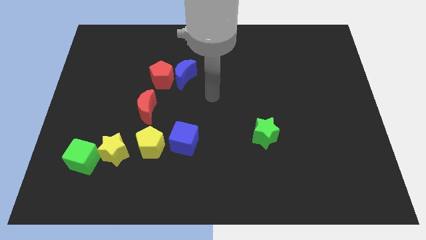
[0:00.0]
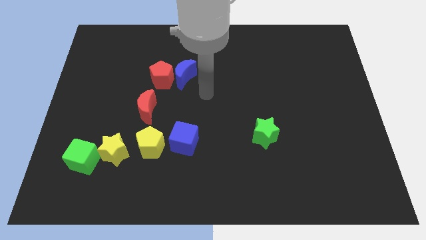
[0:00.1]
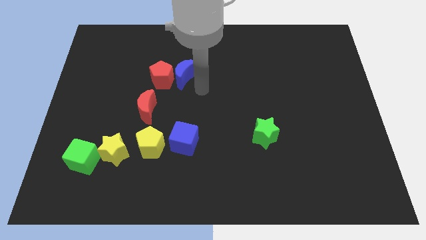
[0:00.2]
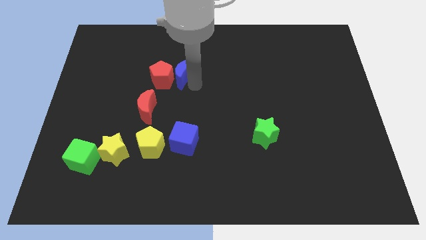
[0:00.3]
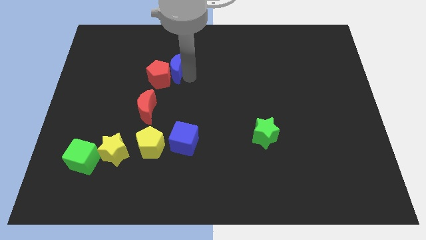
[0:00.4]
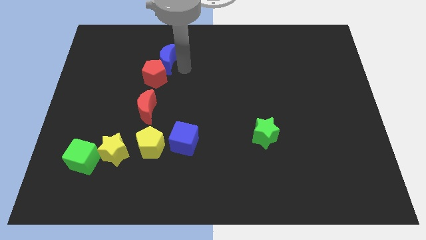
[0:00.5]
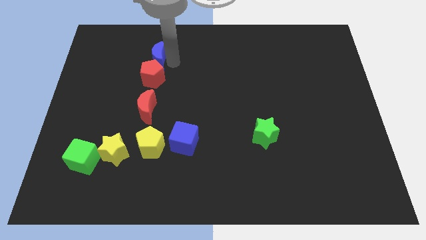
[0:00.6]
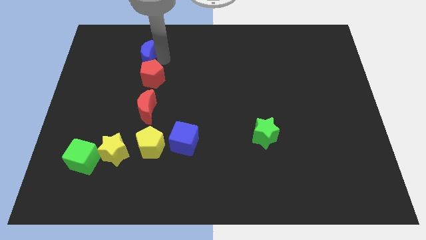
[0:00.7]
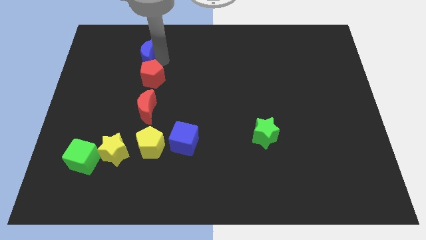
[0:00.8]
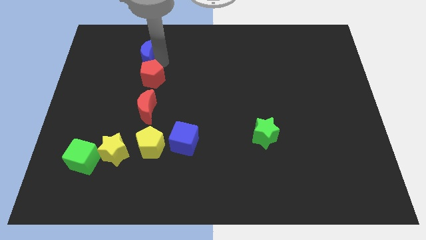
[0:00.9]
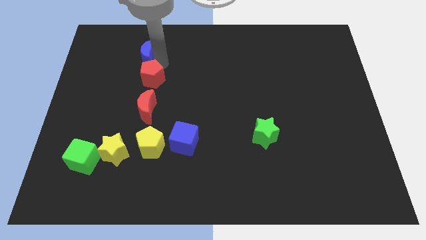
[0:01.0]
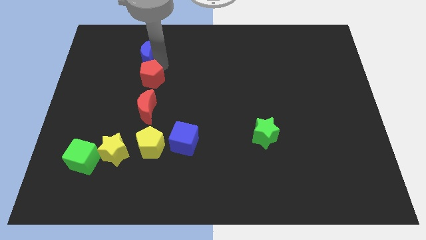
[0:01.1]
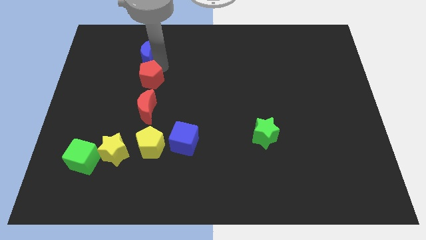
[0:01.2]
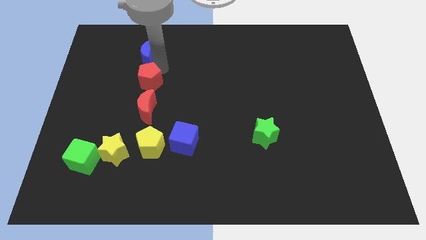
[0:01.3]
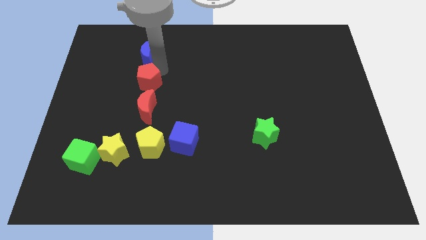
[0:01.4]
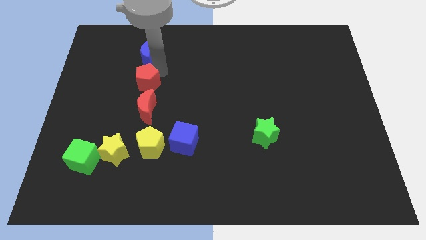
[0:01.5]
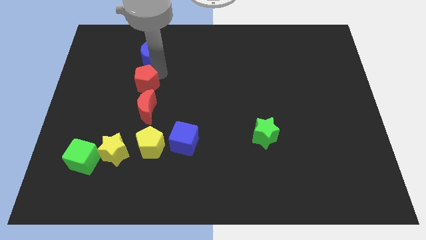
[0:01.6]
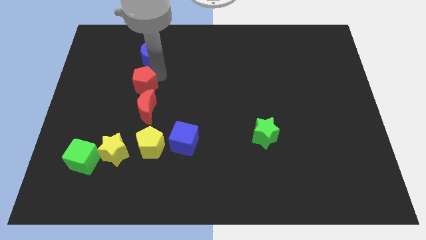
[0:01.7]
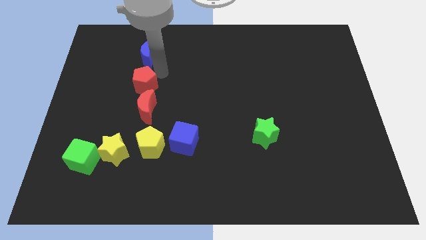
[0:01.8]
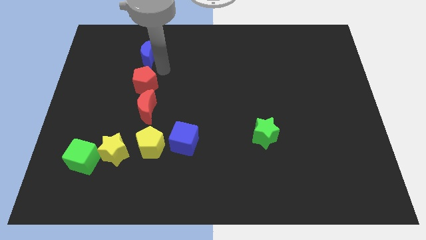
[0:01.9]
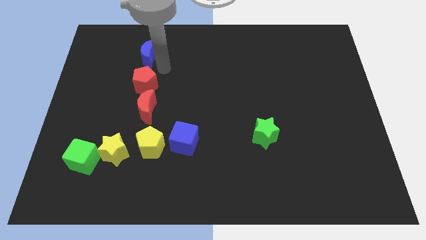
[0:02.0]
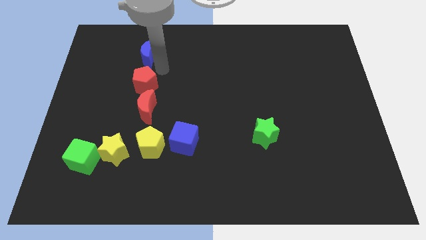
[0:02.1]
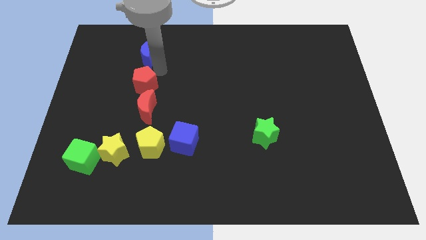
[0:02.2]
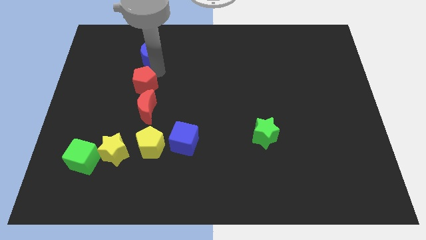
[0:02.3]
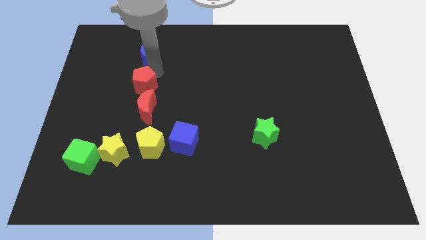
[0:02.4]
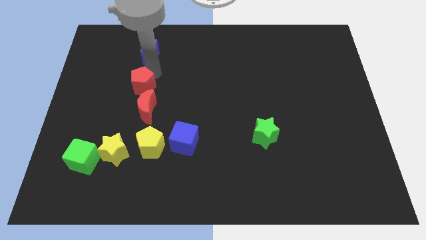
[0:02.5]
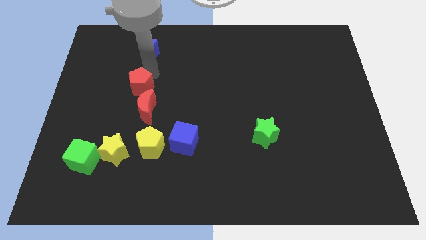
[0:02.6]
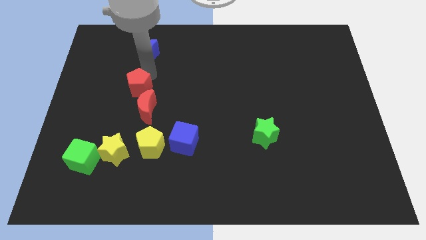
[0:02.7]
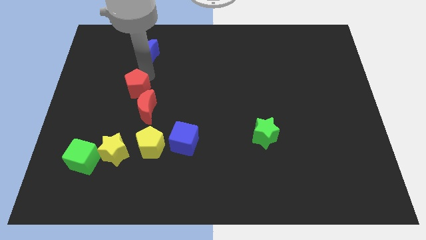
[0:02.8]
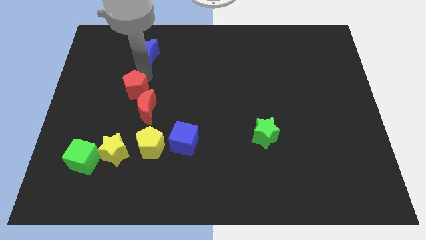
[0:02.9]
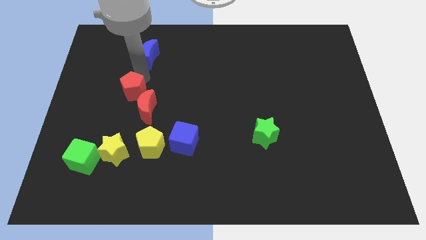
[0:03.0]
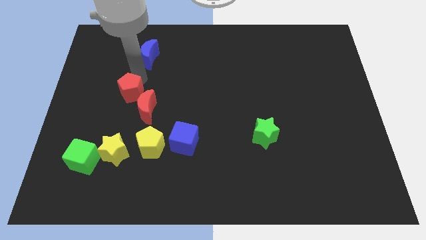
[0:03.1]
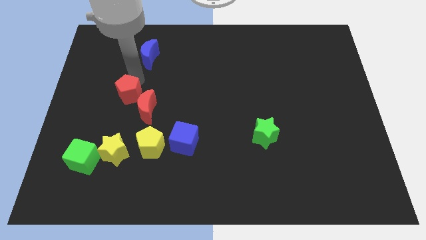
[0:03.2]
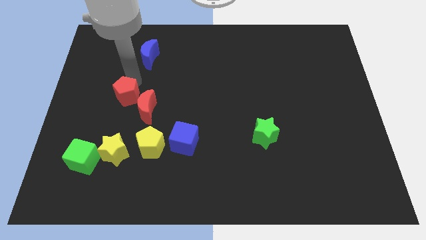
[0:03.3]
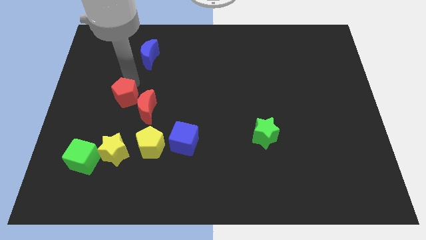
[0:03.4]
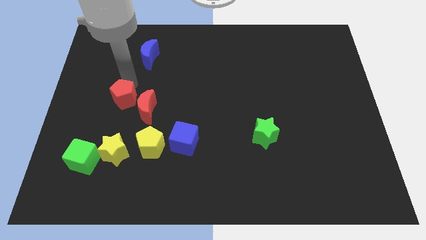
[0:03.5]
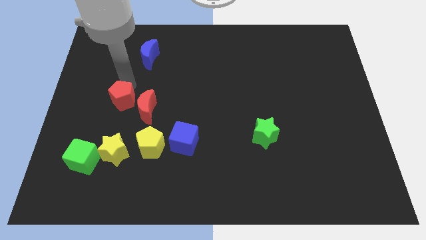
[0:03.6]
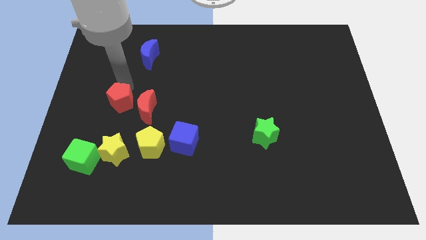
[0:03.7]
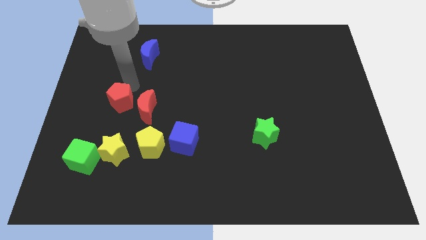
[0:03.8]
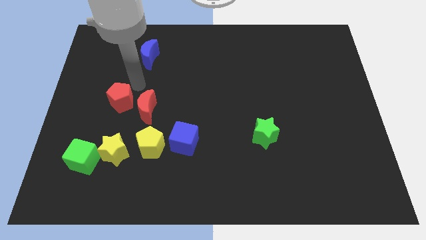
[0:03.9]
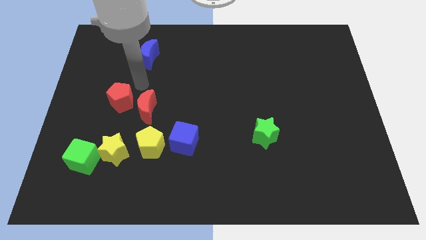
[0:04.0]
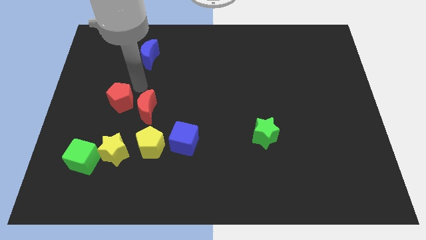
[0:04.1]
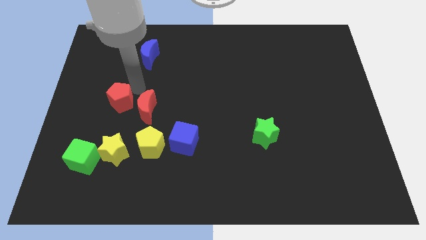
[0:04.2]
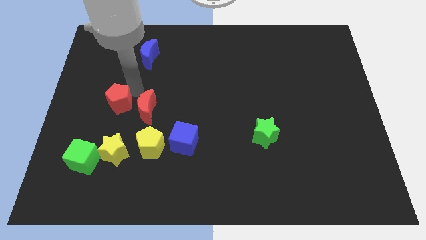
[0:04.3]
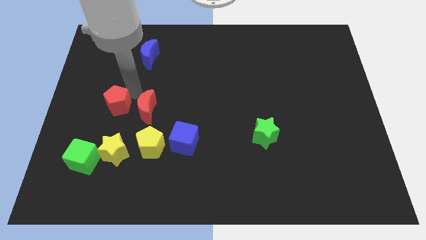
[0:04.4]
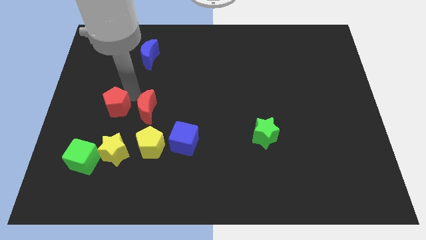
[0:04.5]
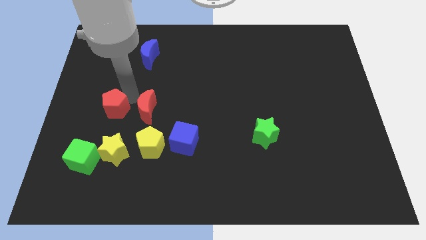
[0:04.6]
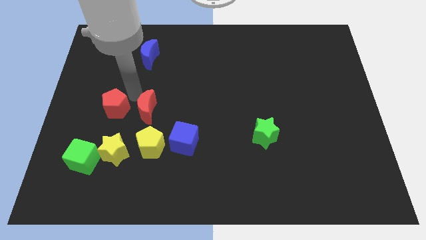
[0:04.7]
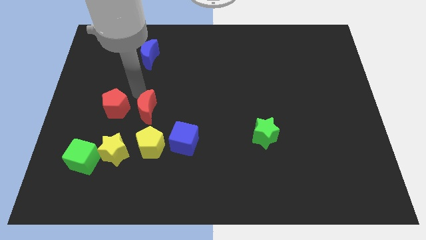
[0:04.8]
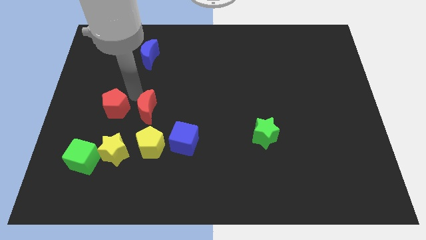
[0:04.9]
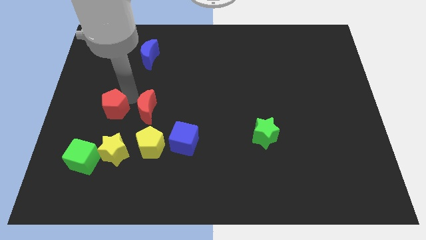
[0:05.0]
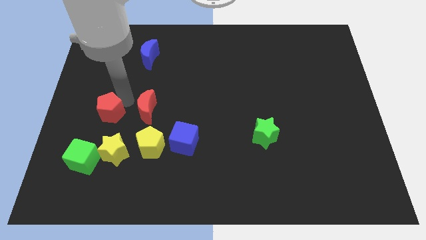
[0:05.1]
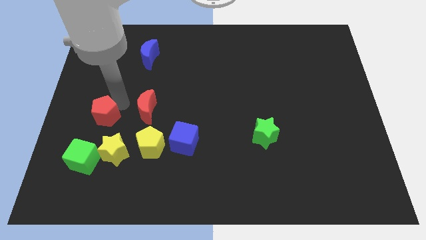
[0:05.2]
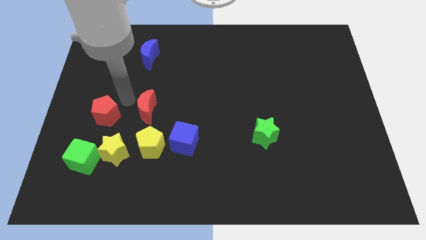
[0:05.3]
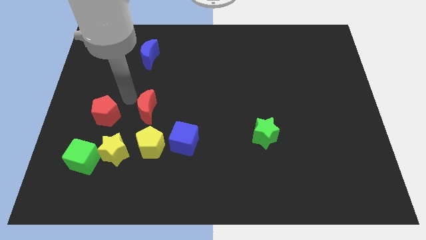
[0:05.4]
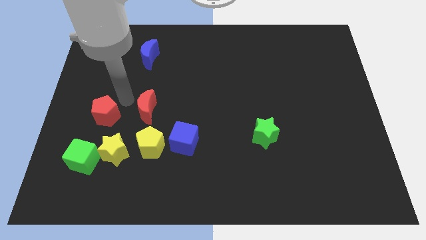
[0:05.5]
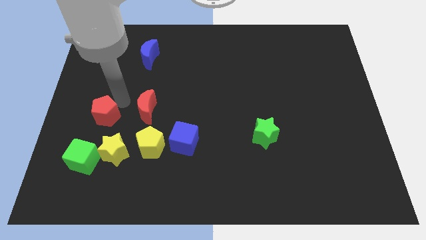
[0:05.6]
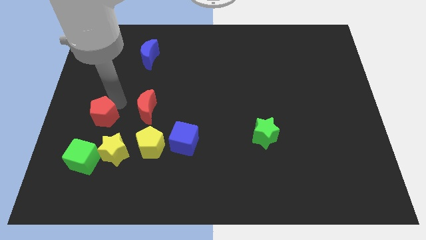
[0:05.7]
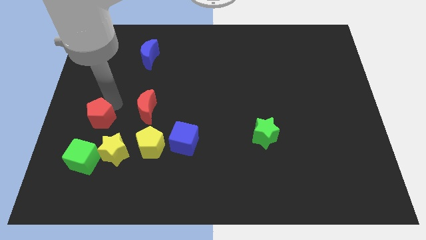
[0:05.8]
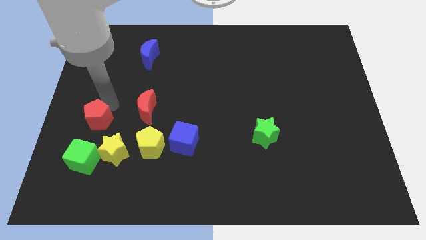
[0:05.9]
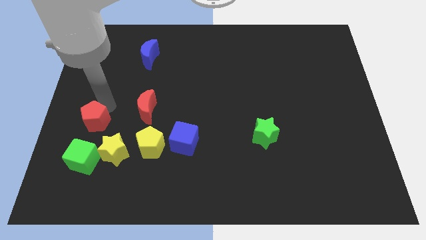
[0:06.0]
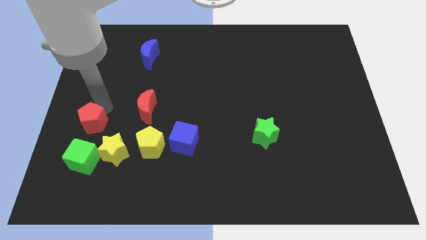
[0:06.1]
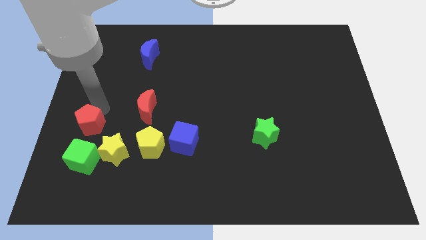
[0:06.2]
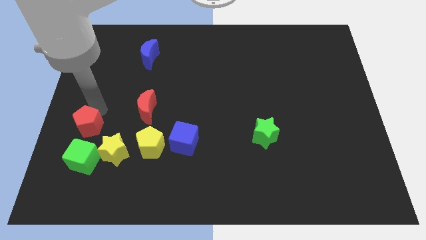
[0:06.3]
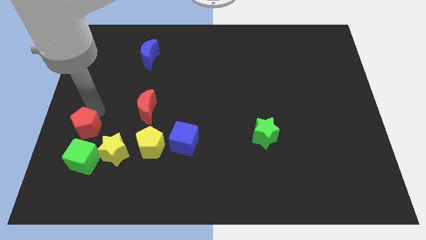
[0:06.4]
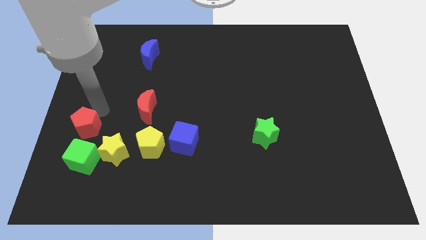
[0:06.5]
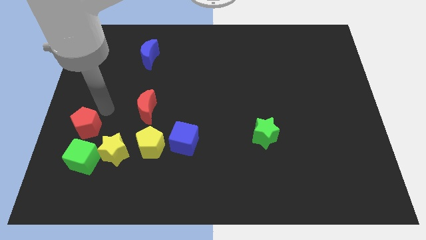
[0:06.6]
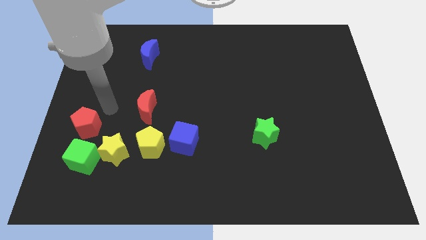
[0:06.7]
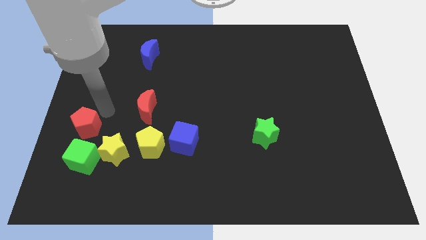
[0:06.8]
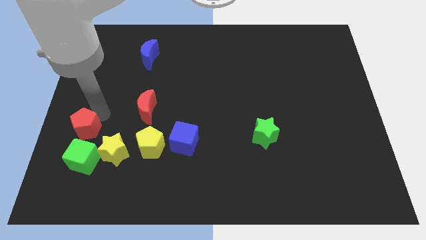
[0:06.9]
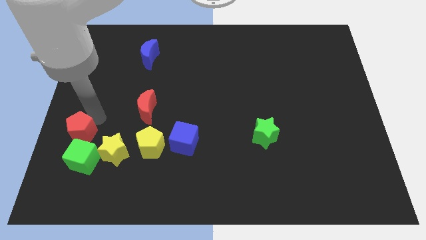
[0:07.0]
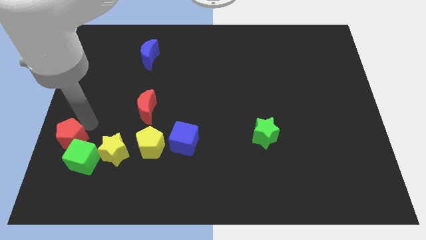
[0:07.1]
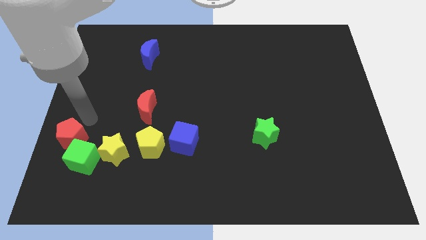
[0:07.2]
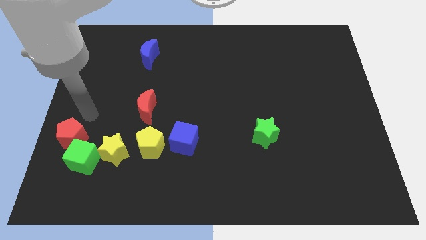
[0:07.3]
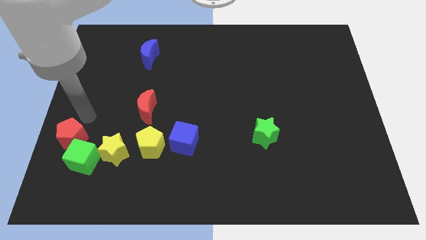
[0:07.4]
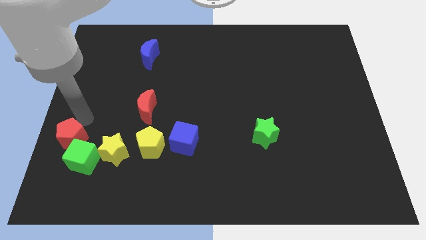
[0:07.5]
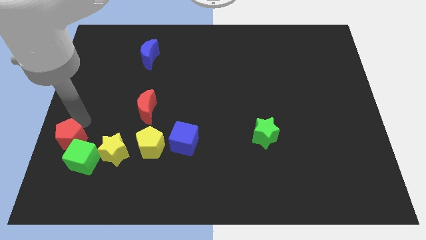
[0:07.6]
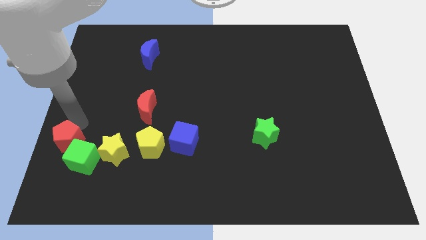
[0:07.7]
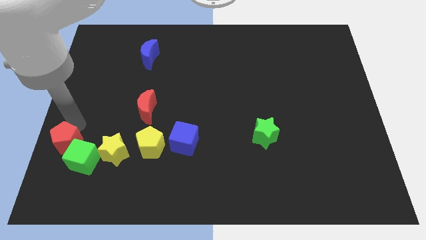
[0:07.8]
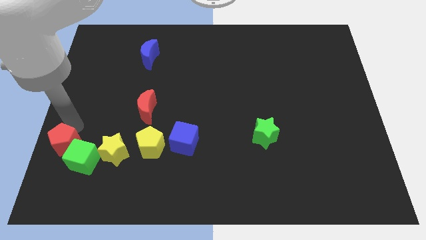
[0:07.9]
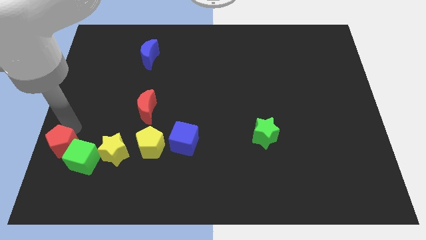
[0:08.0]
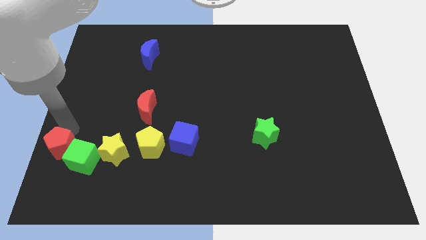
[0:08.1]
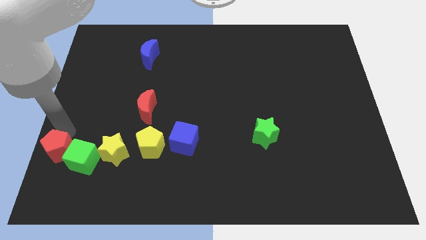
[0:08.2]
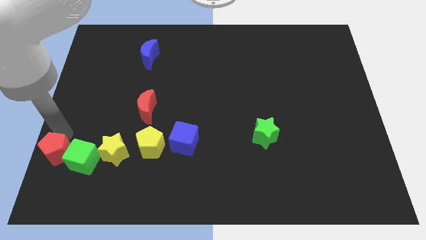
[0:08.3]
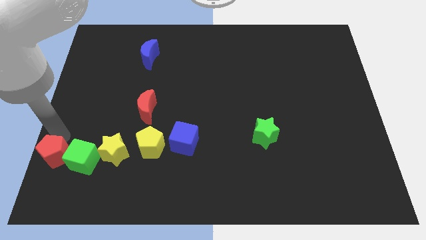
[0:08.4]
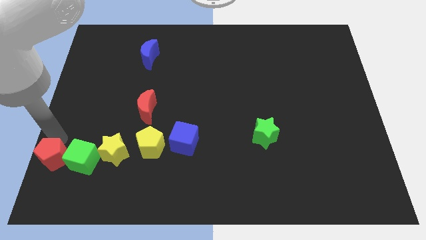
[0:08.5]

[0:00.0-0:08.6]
move the red pentagon to the lower left corner
